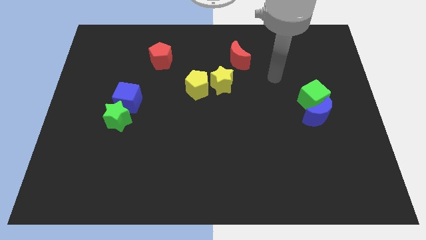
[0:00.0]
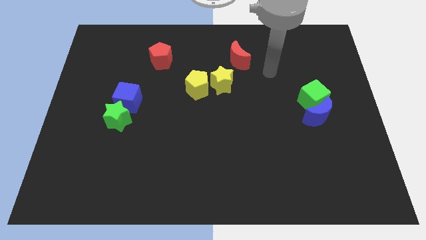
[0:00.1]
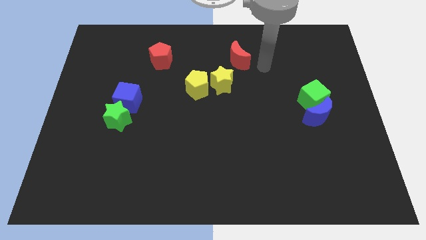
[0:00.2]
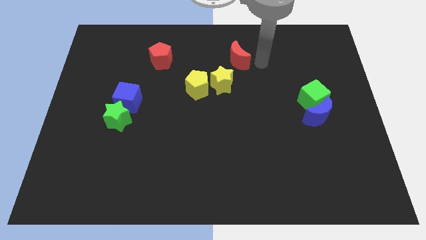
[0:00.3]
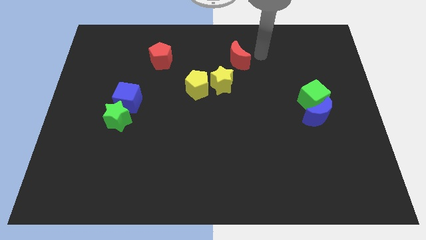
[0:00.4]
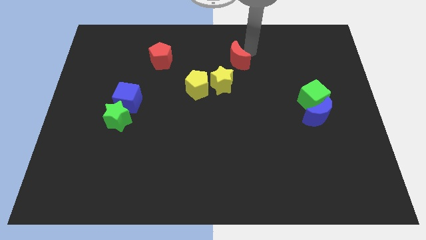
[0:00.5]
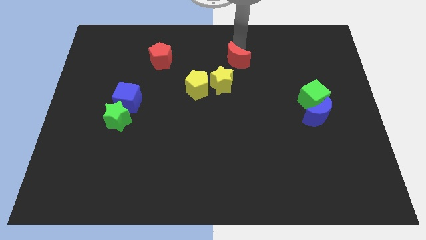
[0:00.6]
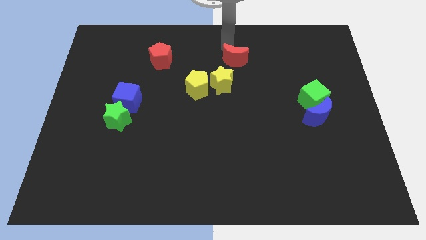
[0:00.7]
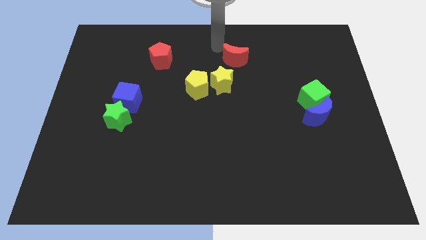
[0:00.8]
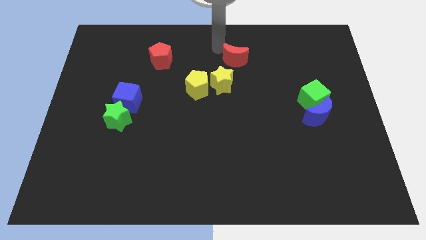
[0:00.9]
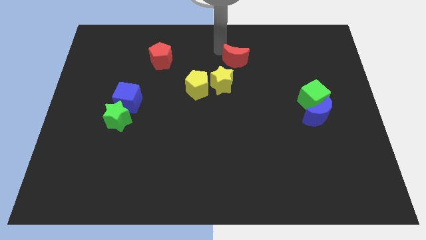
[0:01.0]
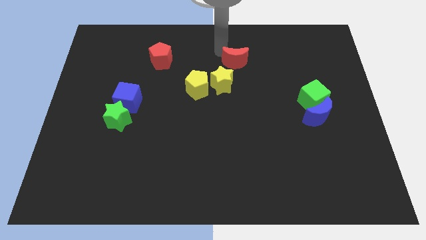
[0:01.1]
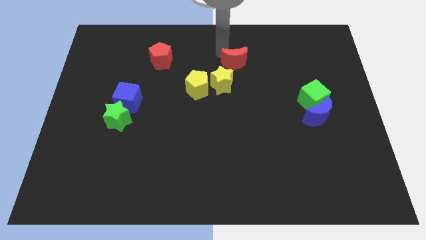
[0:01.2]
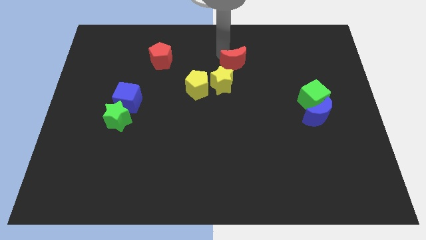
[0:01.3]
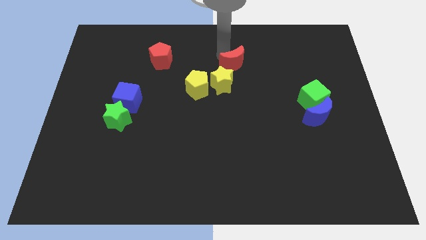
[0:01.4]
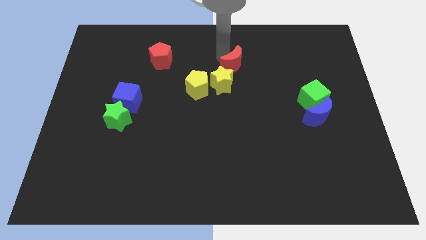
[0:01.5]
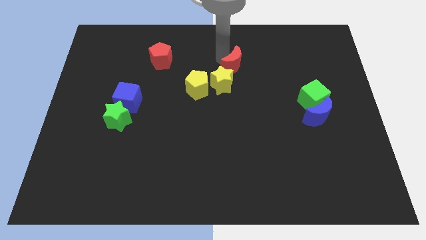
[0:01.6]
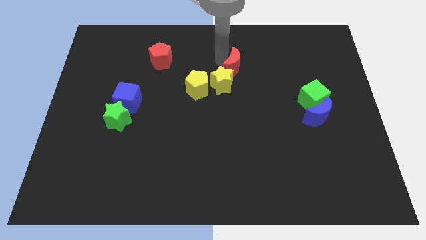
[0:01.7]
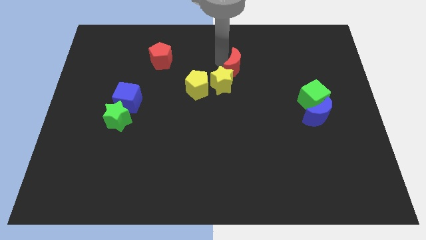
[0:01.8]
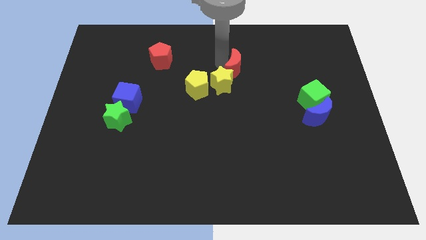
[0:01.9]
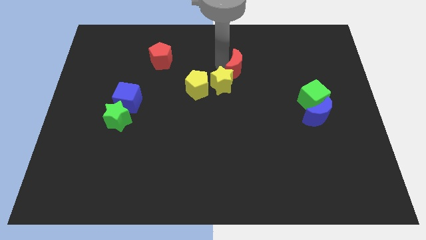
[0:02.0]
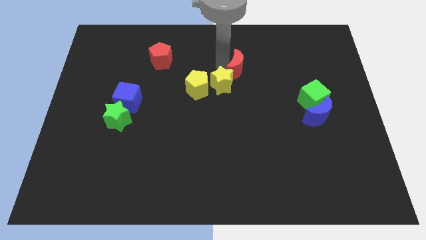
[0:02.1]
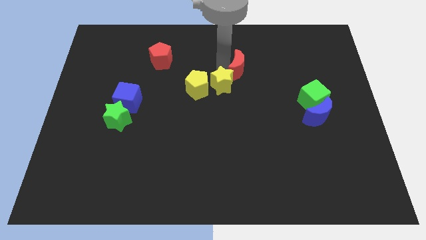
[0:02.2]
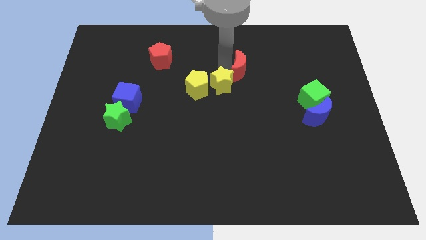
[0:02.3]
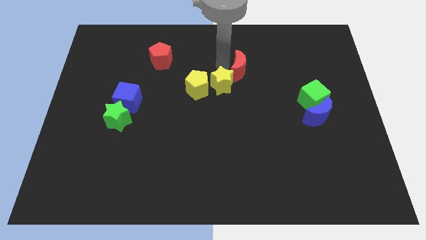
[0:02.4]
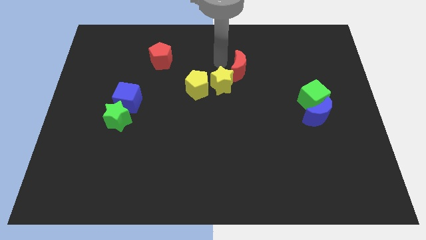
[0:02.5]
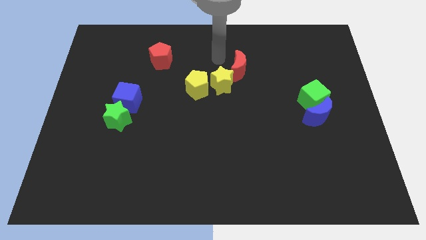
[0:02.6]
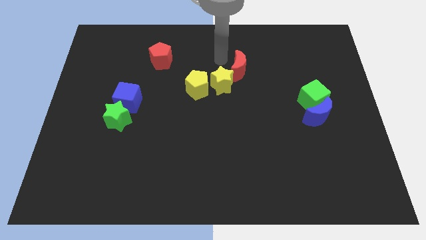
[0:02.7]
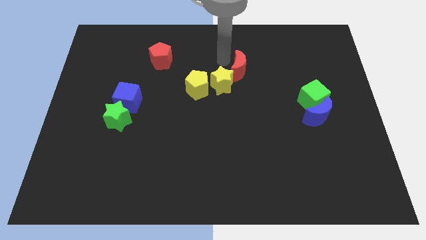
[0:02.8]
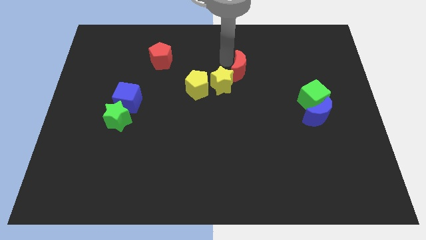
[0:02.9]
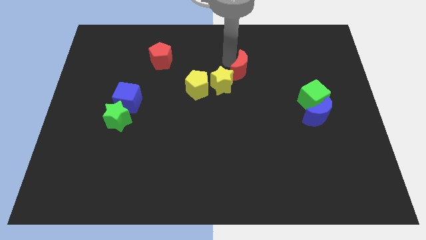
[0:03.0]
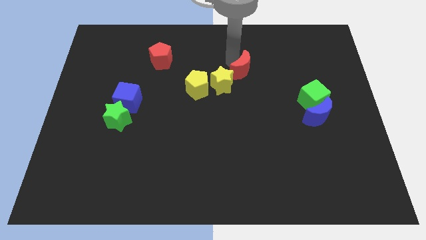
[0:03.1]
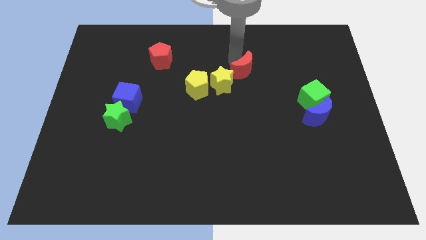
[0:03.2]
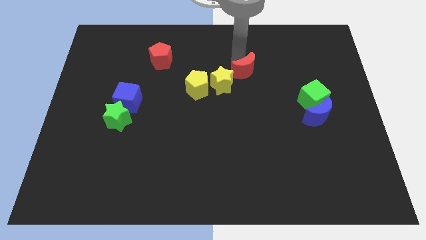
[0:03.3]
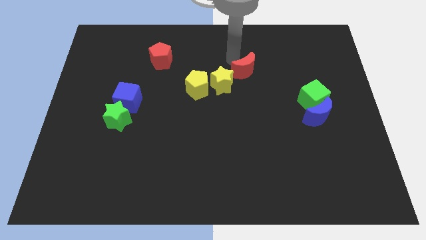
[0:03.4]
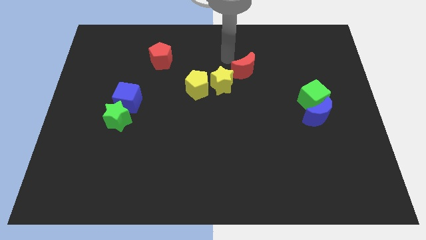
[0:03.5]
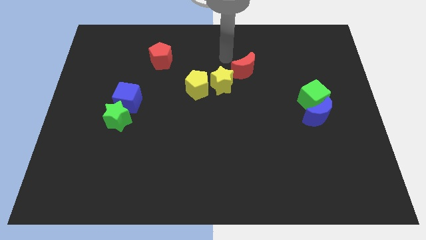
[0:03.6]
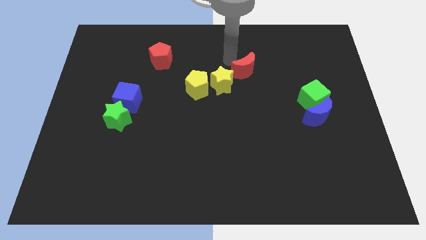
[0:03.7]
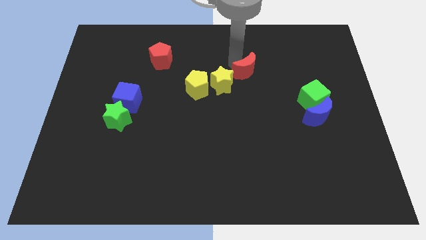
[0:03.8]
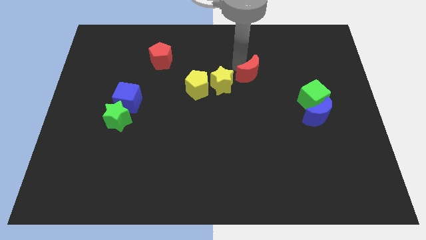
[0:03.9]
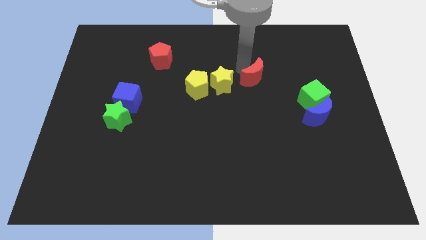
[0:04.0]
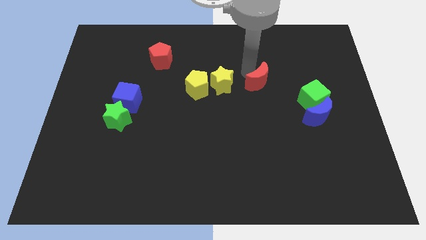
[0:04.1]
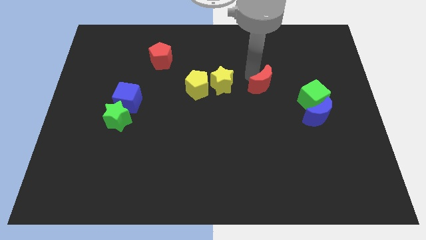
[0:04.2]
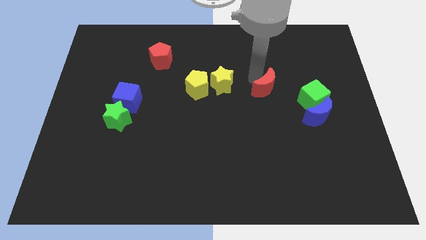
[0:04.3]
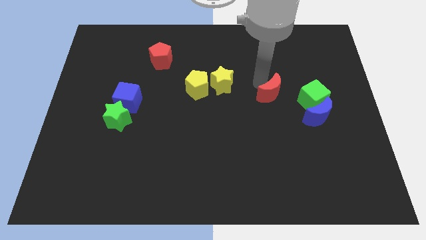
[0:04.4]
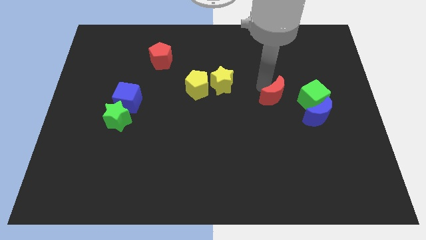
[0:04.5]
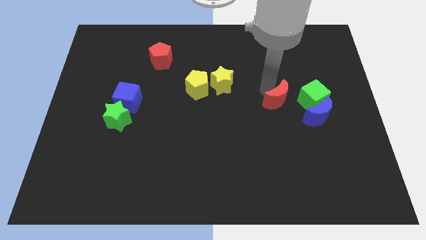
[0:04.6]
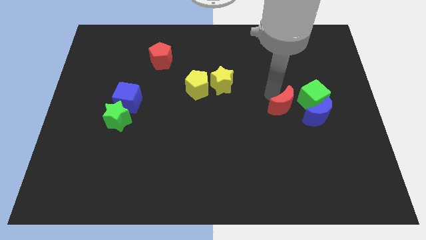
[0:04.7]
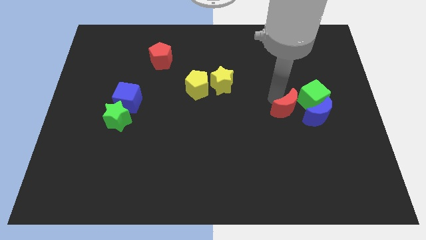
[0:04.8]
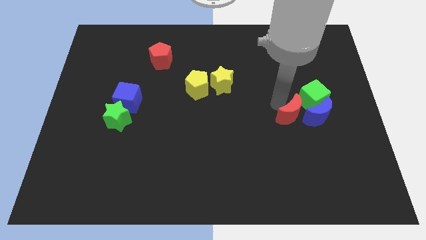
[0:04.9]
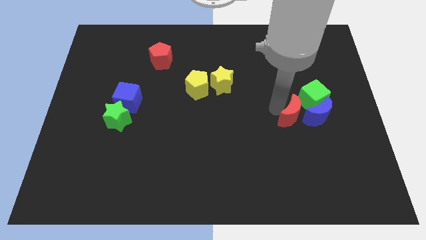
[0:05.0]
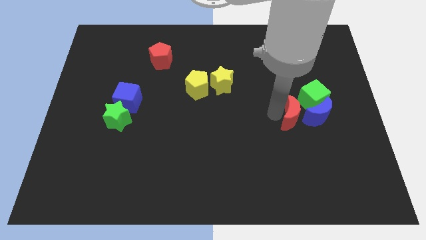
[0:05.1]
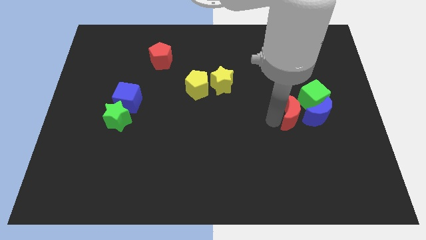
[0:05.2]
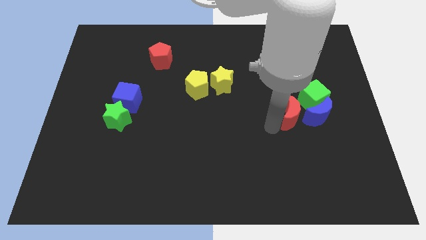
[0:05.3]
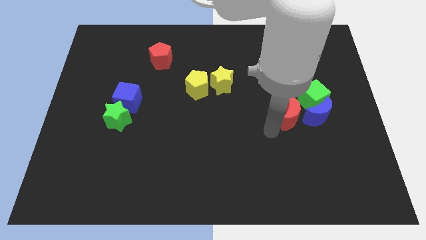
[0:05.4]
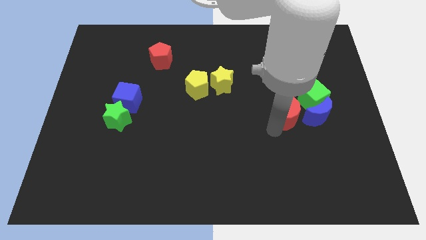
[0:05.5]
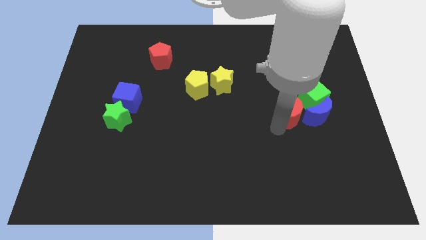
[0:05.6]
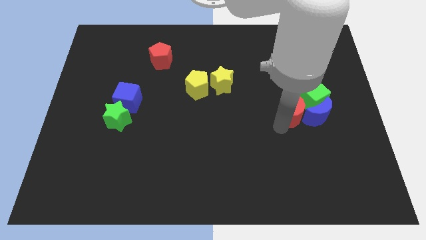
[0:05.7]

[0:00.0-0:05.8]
put the red moon next to the green cube

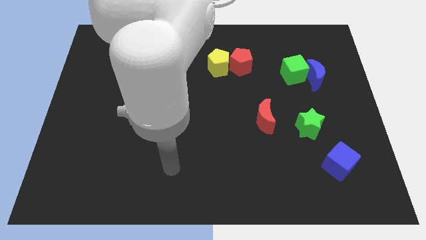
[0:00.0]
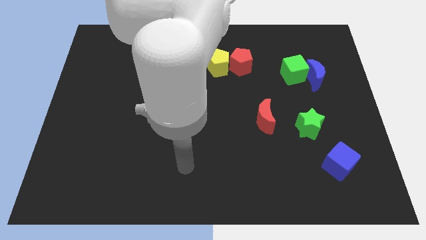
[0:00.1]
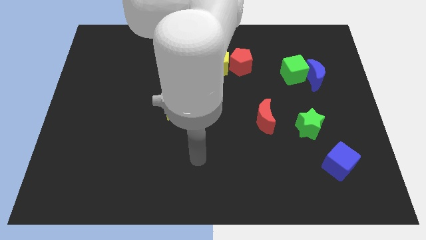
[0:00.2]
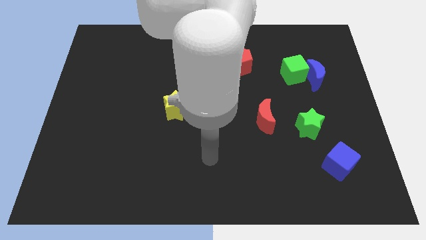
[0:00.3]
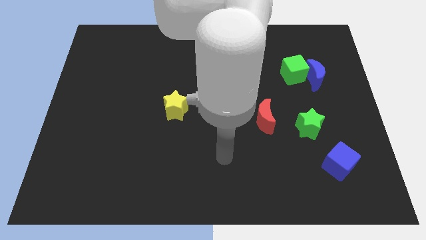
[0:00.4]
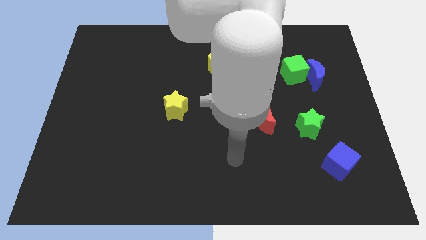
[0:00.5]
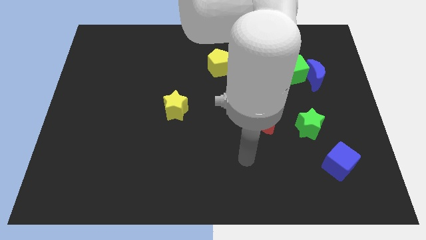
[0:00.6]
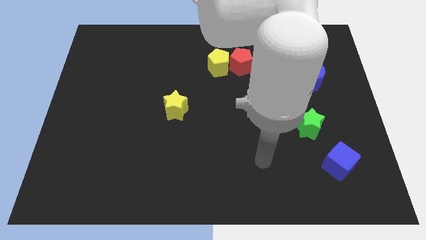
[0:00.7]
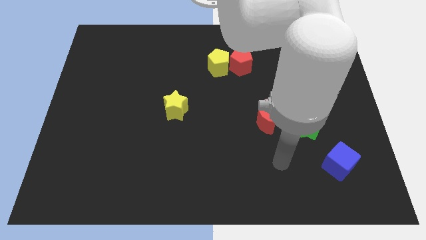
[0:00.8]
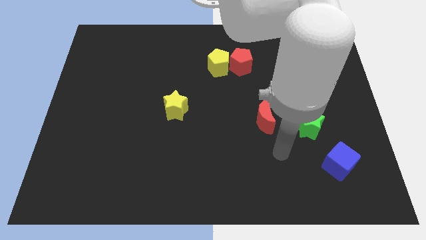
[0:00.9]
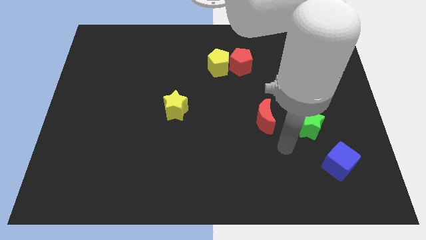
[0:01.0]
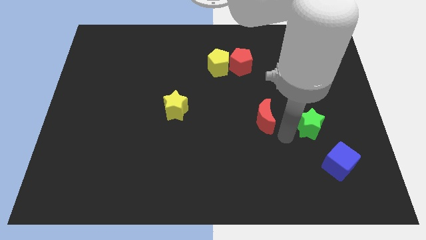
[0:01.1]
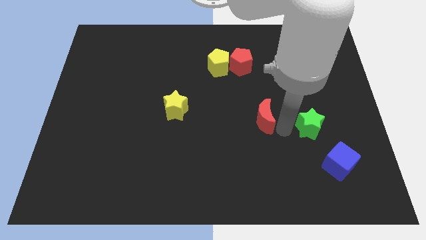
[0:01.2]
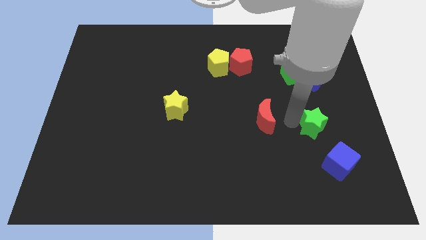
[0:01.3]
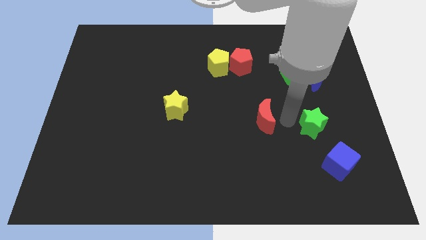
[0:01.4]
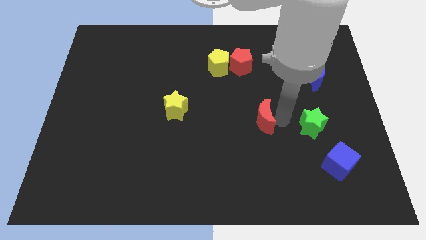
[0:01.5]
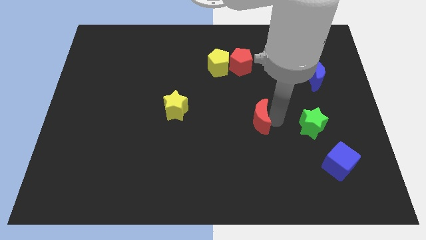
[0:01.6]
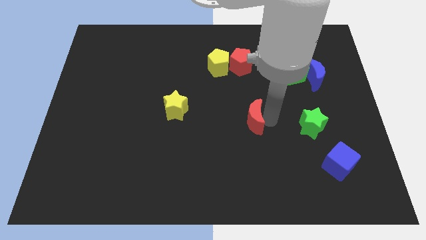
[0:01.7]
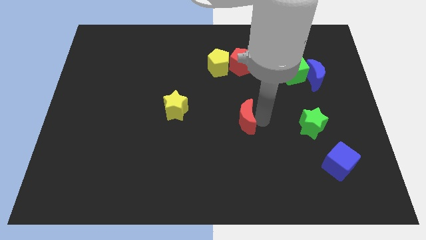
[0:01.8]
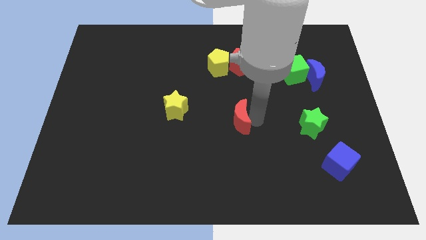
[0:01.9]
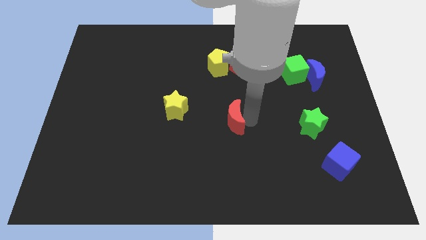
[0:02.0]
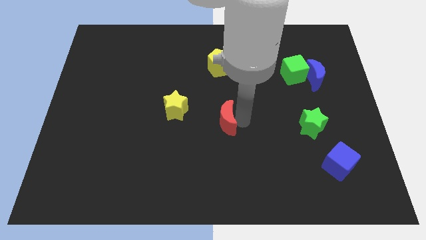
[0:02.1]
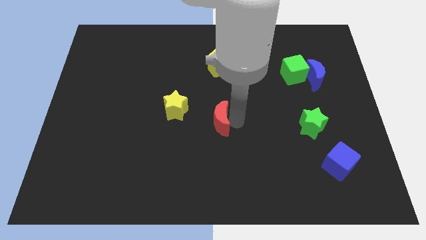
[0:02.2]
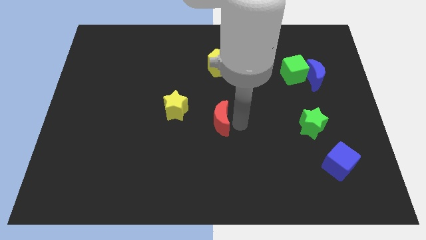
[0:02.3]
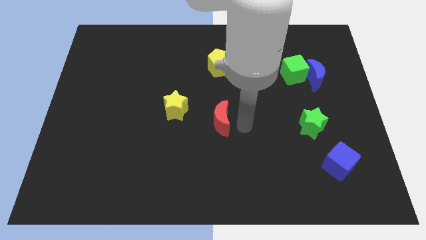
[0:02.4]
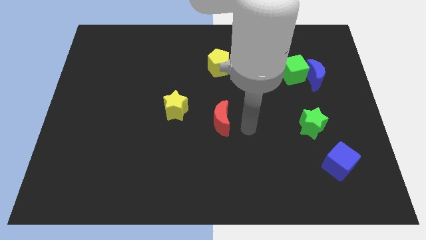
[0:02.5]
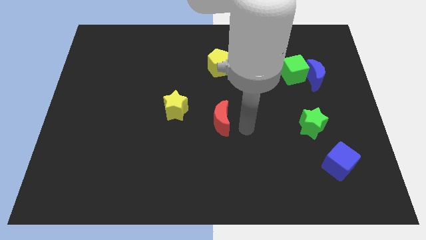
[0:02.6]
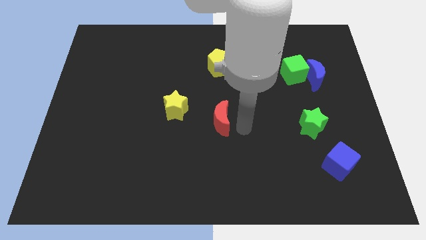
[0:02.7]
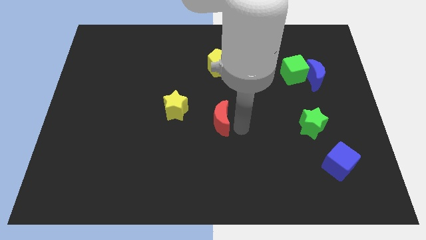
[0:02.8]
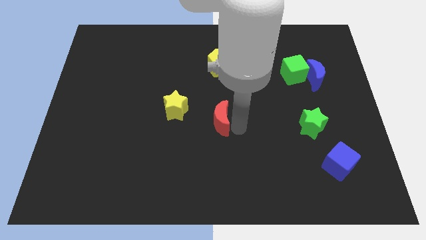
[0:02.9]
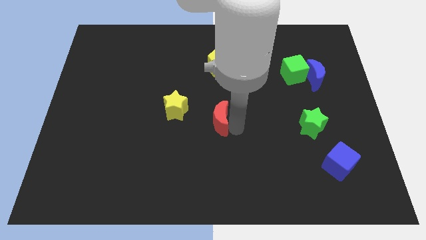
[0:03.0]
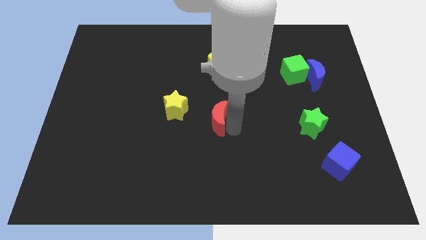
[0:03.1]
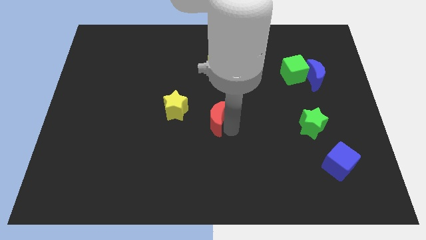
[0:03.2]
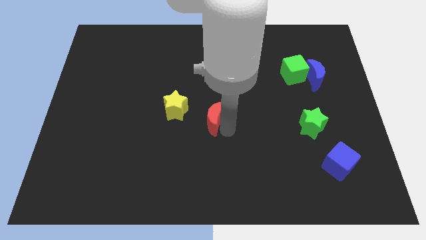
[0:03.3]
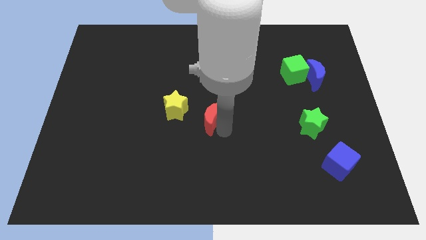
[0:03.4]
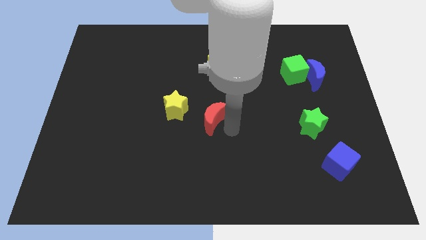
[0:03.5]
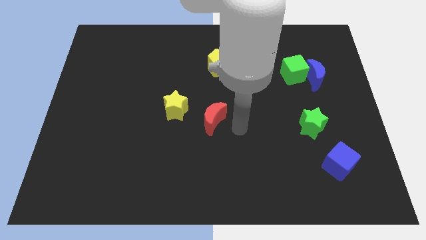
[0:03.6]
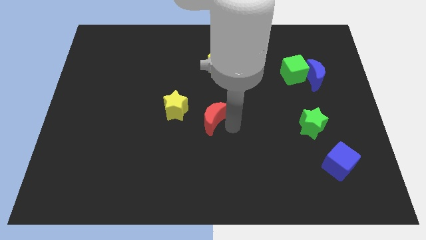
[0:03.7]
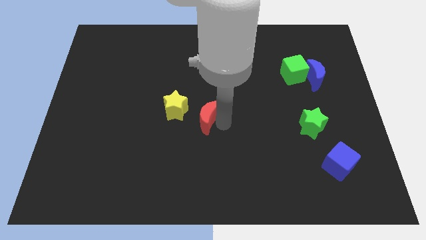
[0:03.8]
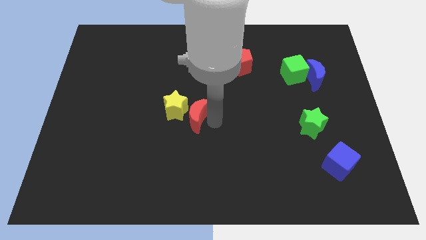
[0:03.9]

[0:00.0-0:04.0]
slide the red moon close to the yellow star
